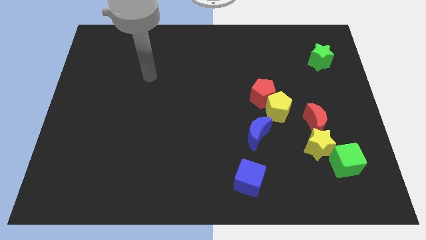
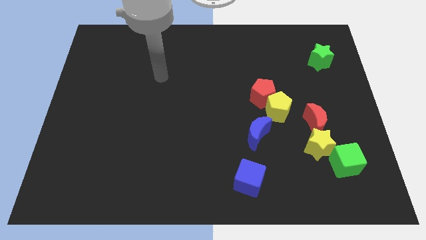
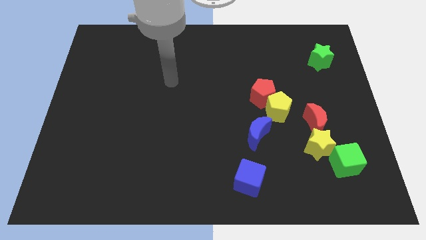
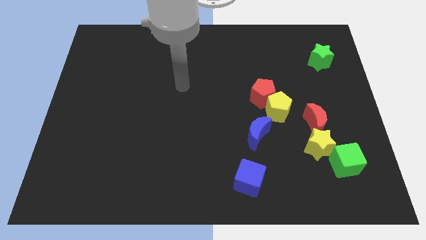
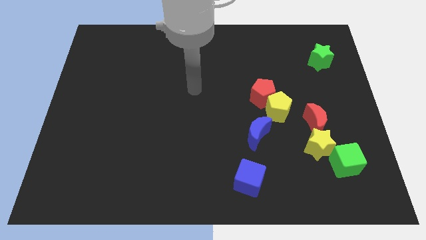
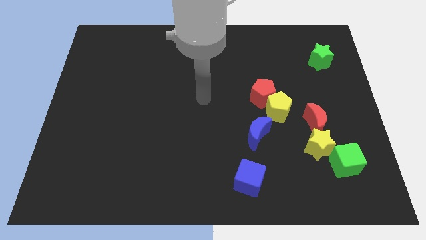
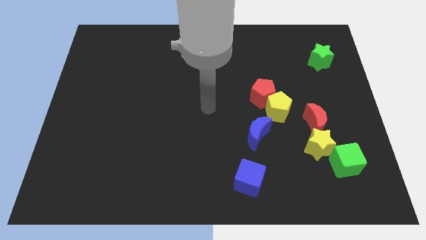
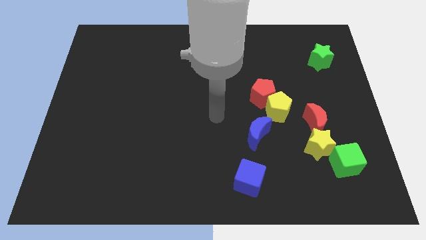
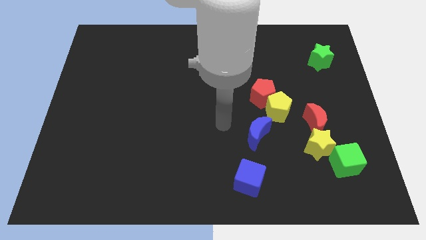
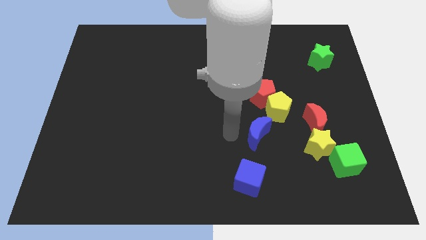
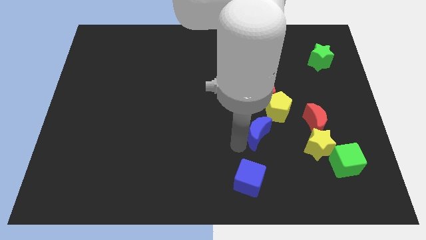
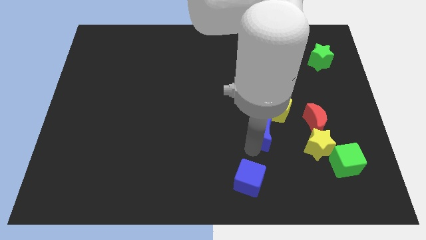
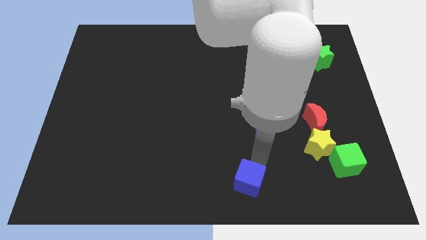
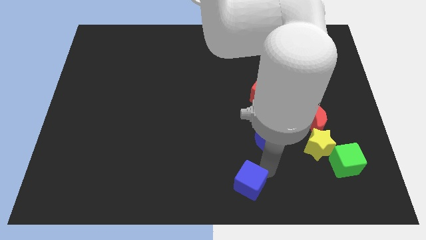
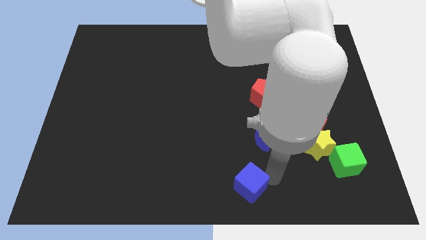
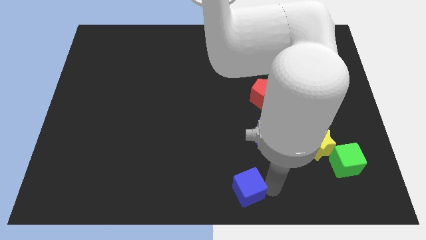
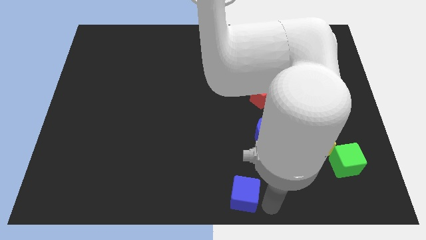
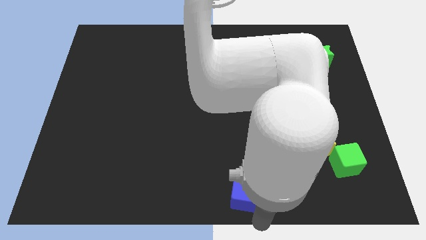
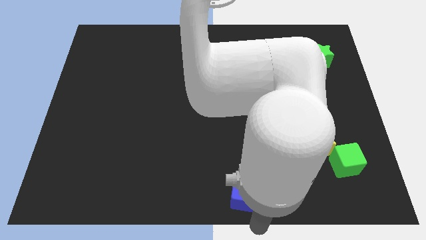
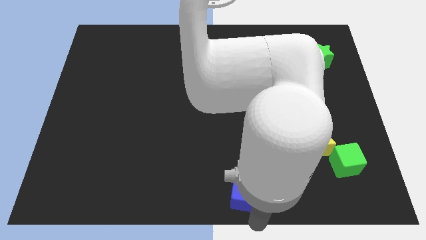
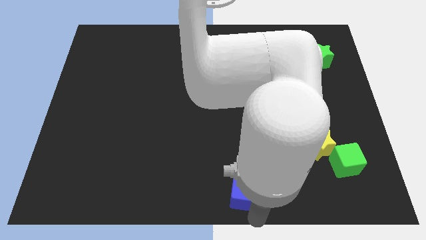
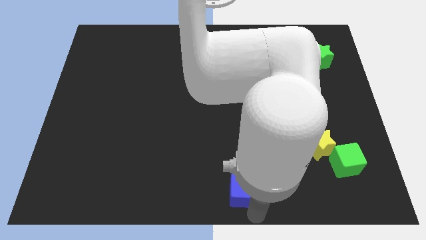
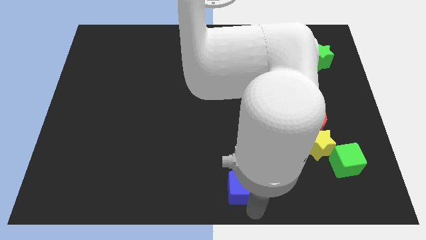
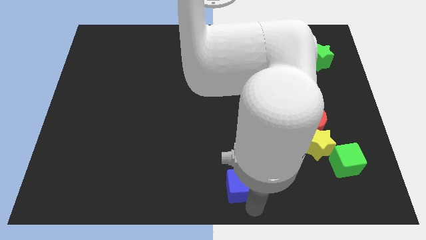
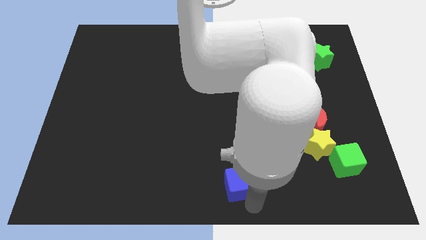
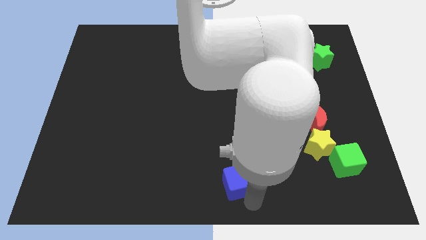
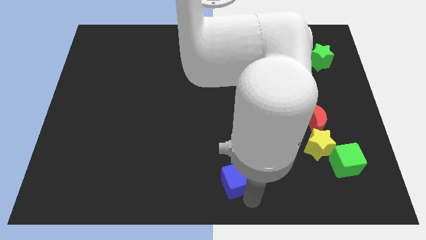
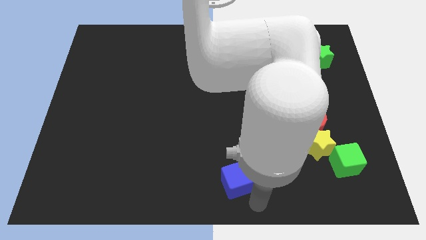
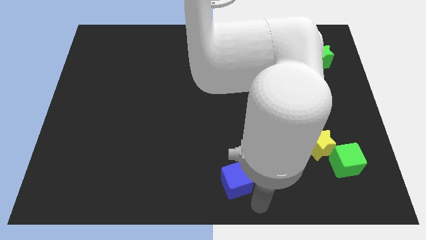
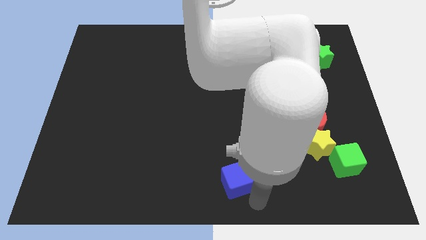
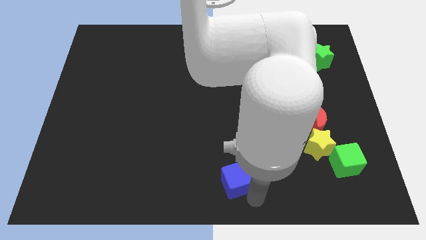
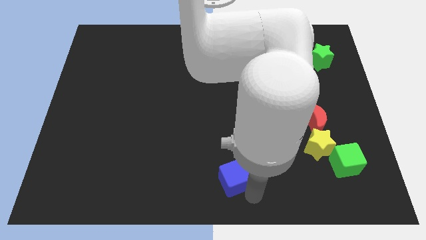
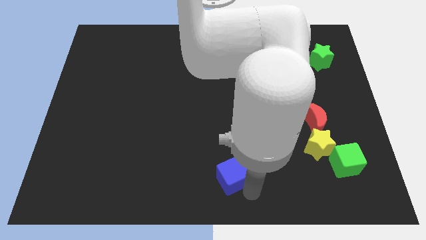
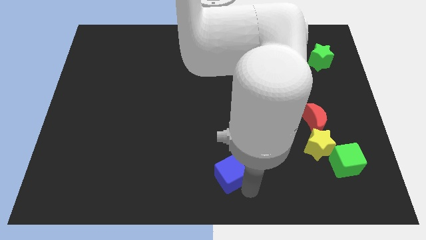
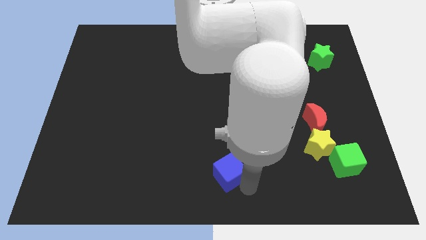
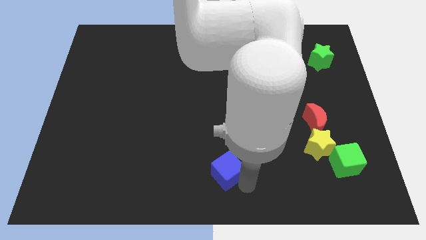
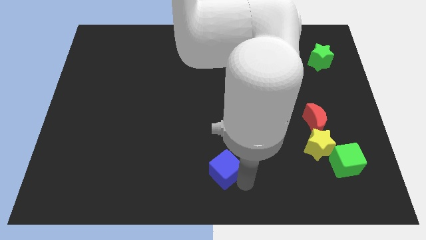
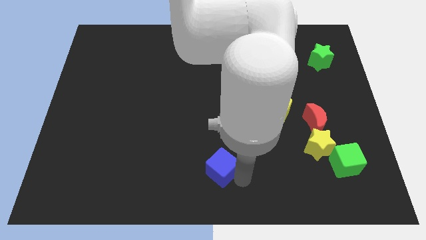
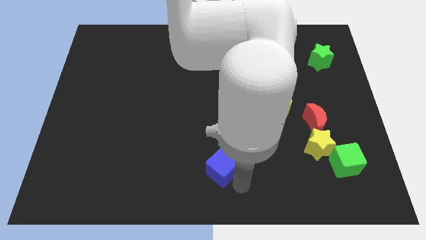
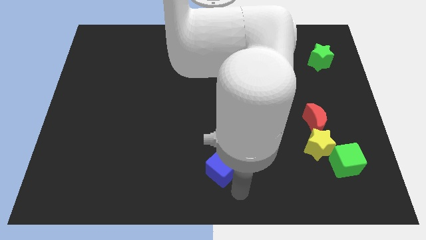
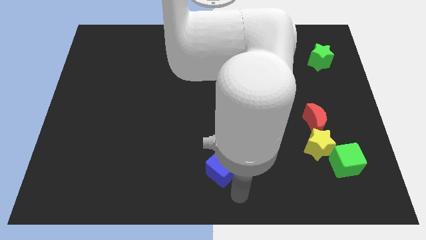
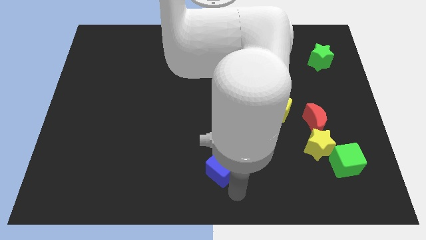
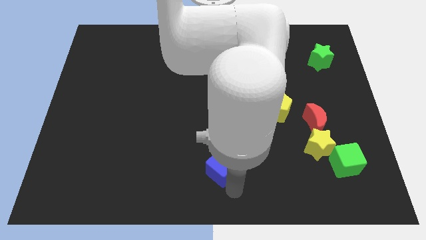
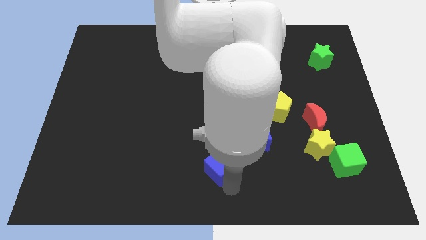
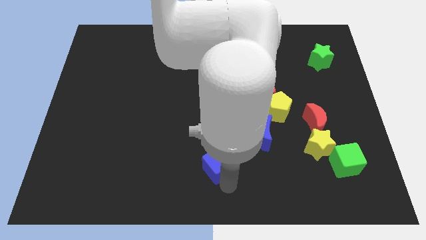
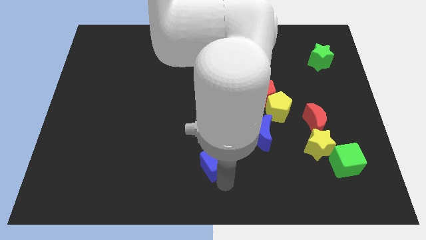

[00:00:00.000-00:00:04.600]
slightly move the blue cube up and to the left

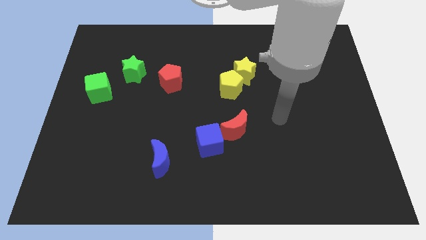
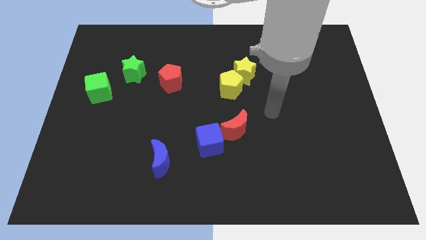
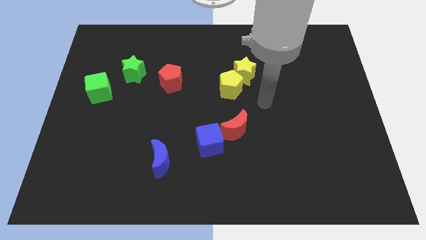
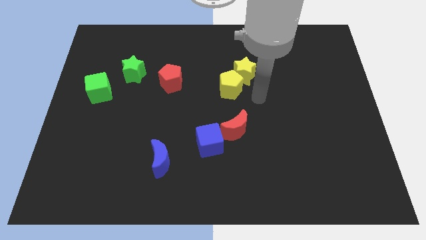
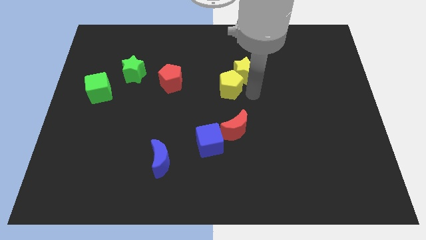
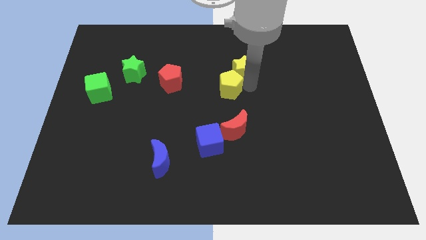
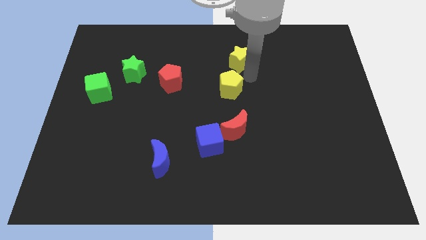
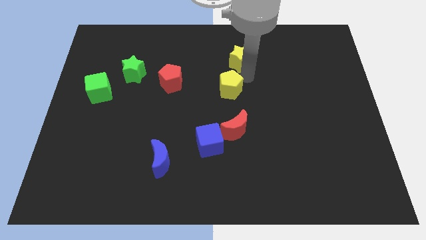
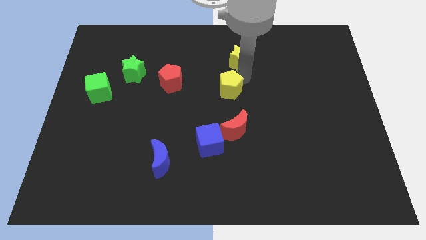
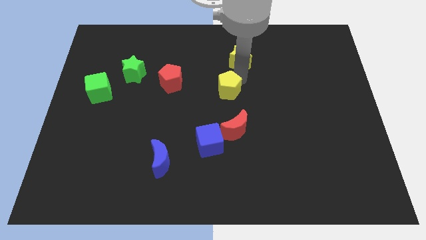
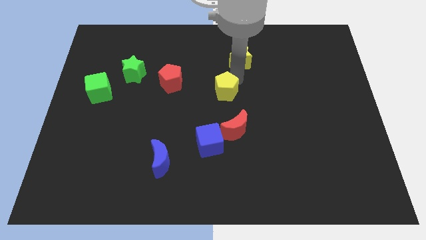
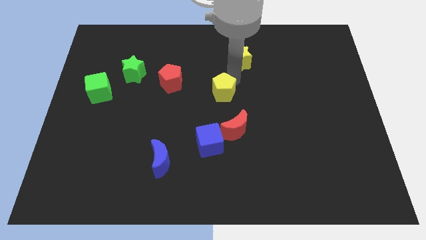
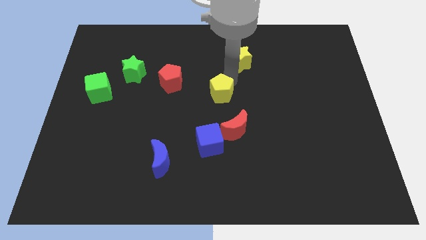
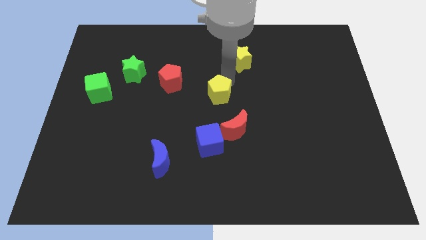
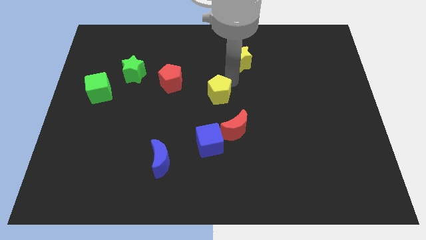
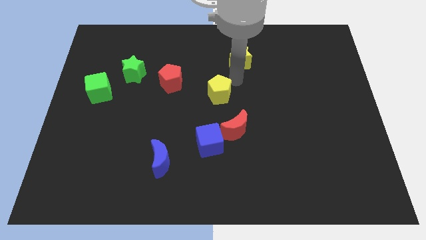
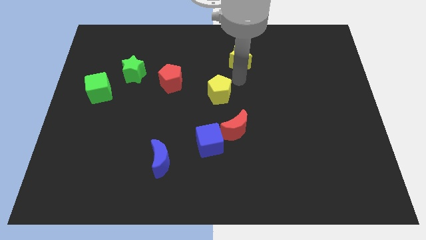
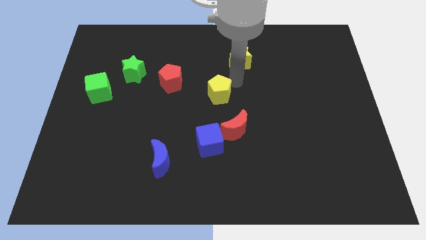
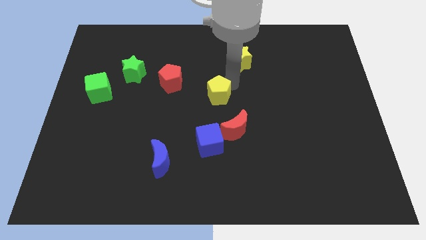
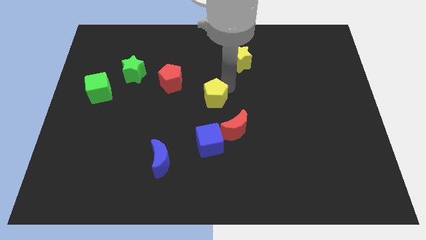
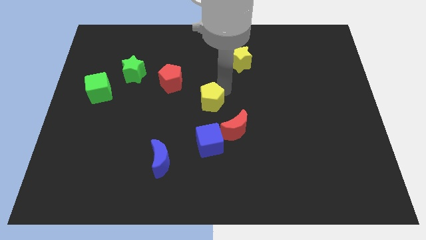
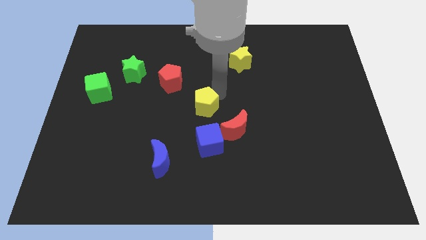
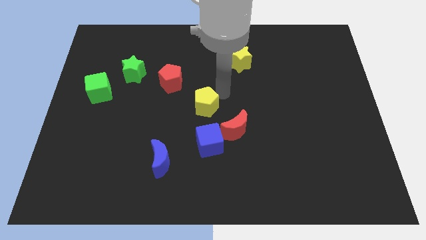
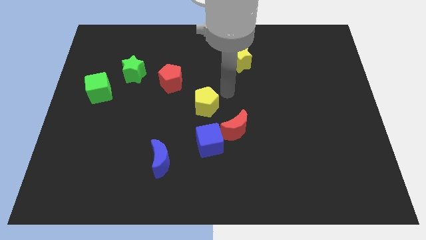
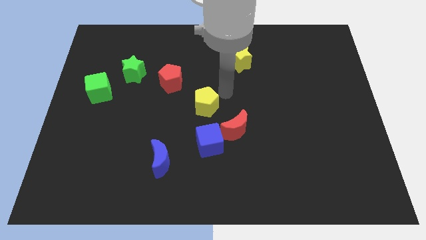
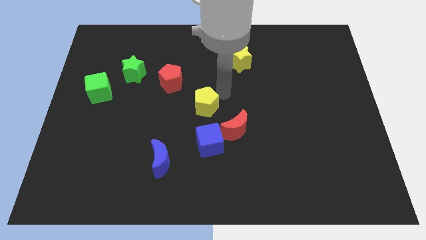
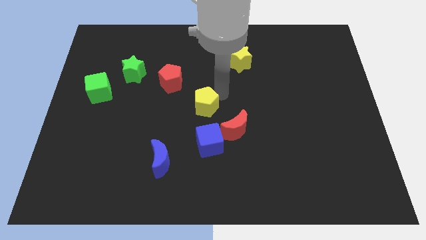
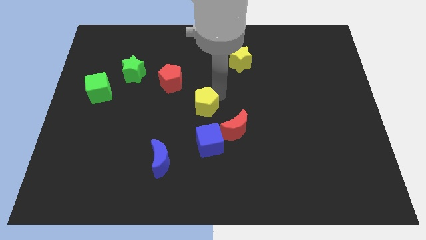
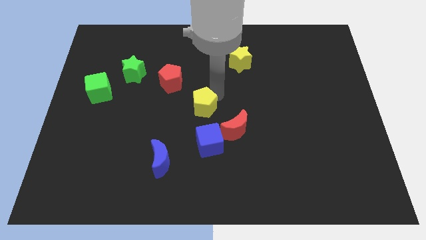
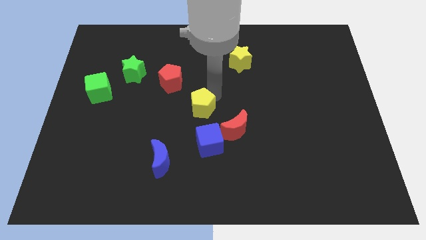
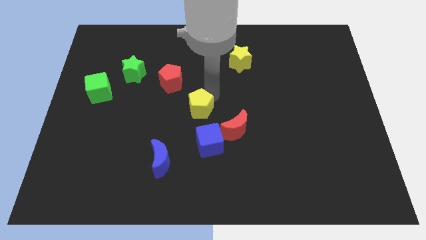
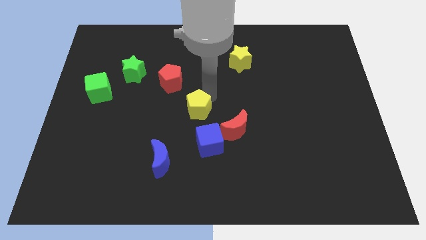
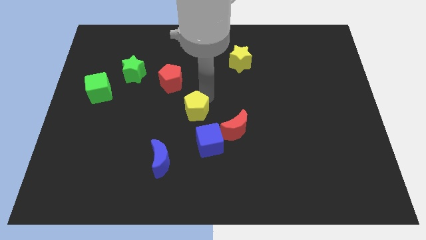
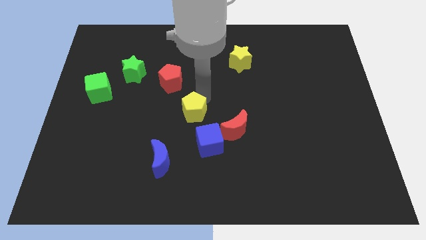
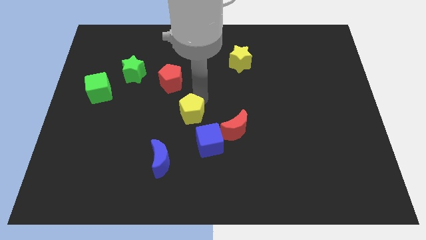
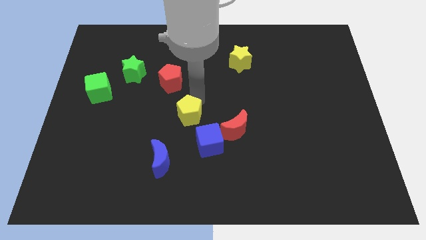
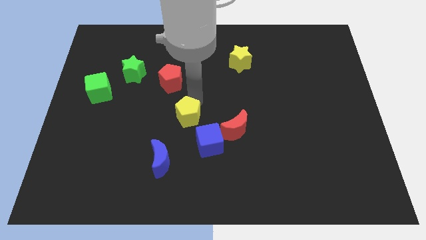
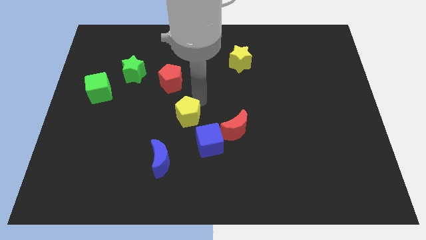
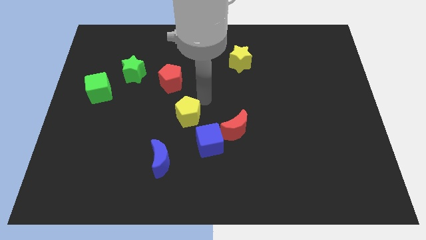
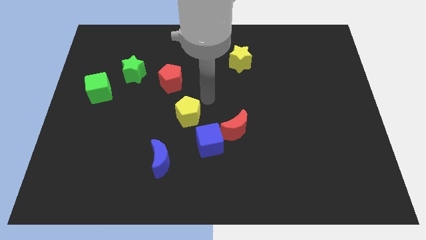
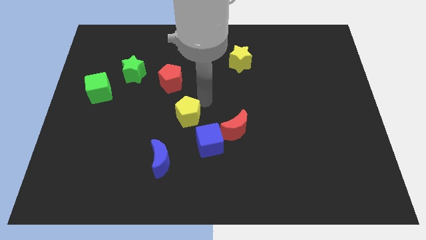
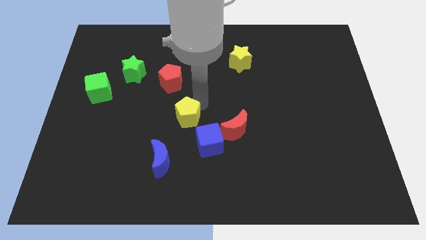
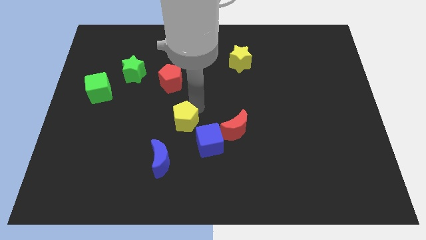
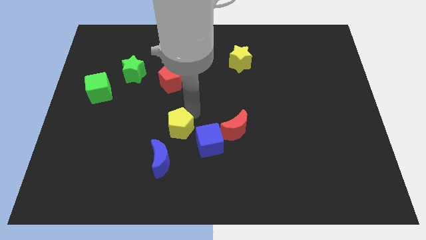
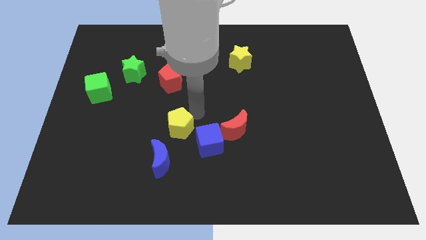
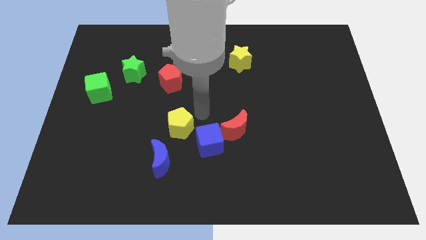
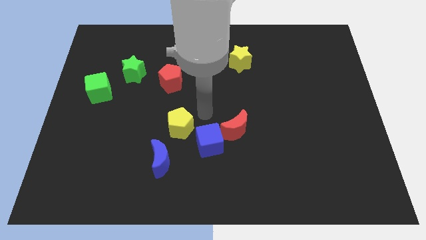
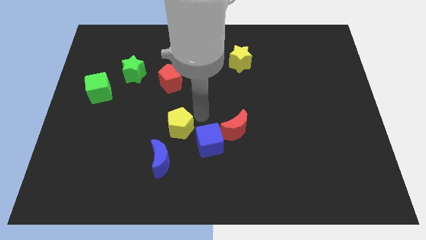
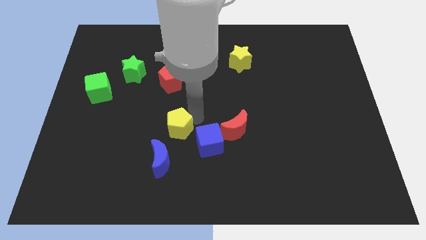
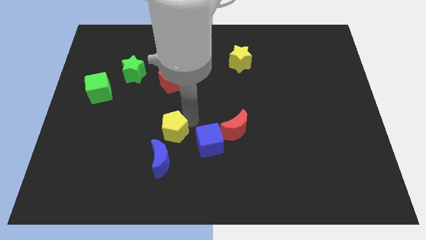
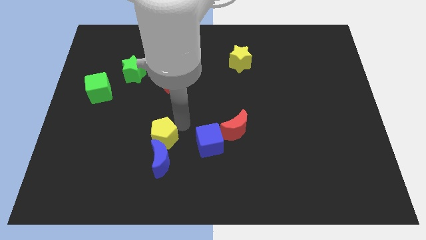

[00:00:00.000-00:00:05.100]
push the yellow pentagon downwards and then left
